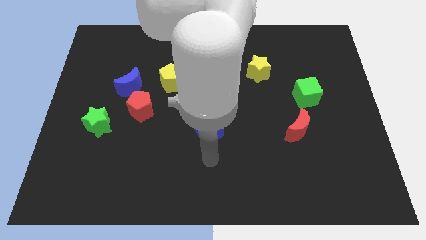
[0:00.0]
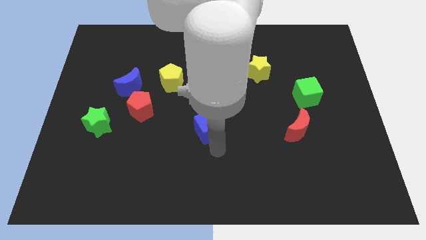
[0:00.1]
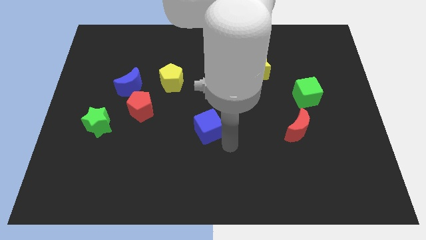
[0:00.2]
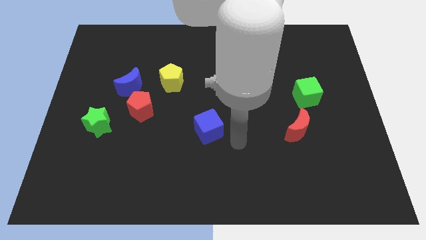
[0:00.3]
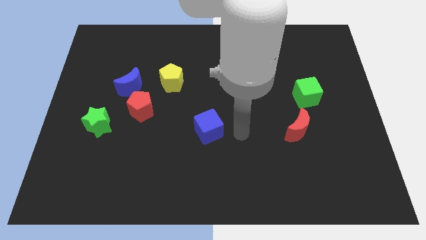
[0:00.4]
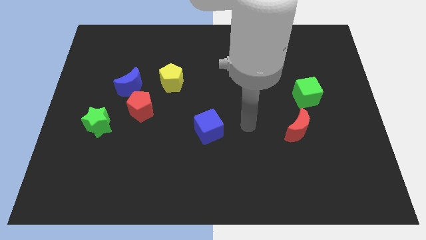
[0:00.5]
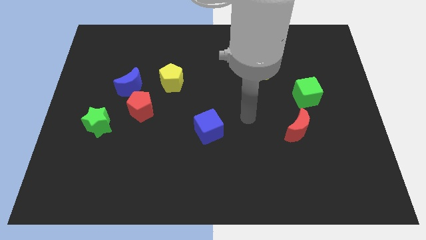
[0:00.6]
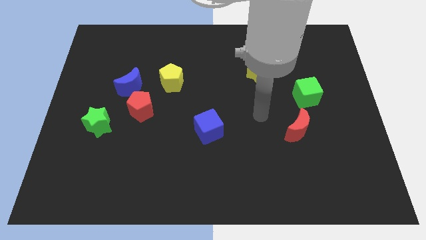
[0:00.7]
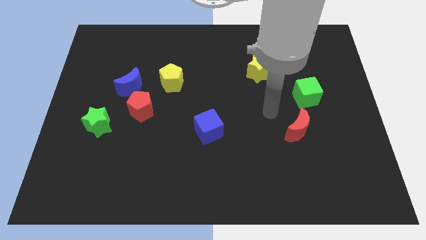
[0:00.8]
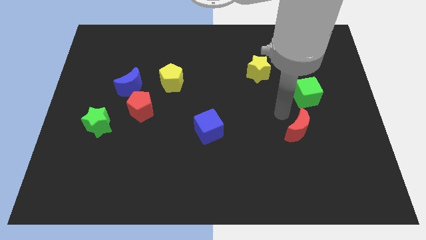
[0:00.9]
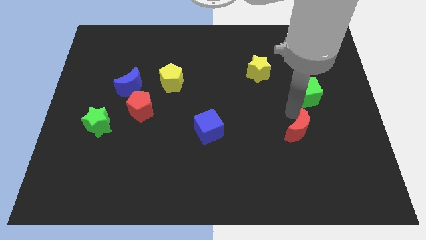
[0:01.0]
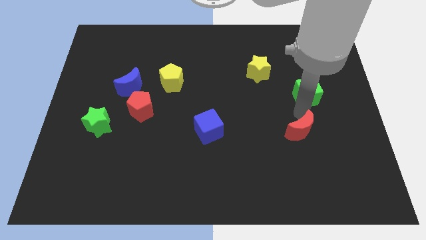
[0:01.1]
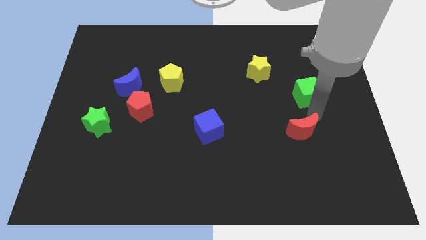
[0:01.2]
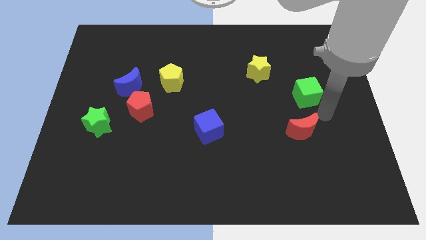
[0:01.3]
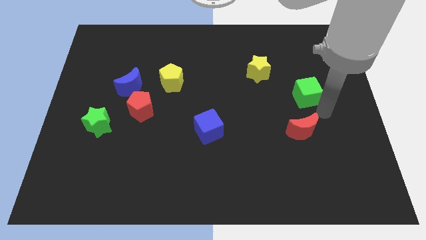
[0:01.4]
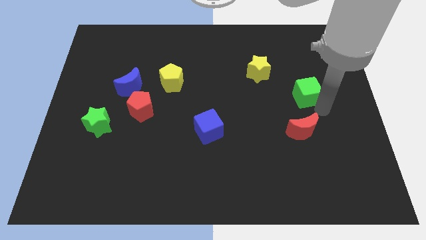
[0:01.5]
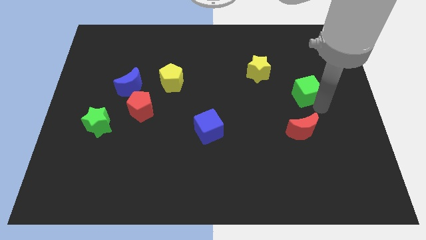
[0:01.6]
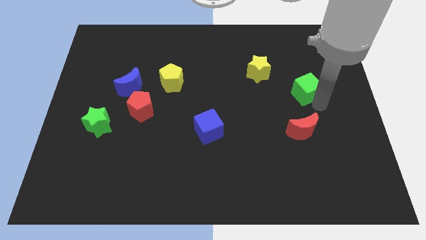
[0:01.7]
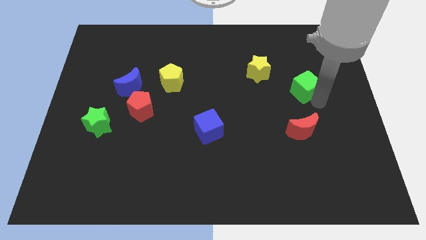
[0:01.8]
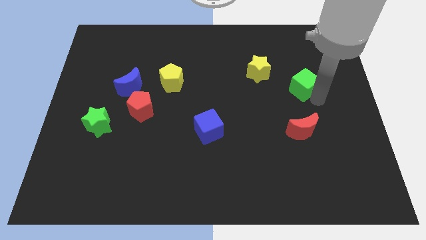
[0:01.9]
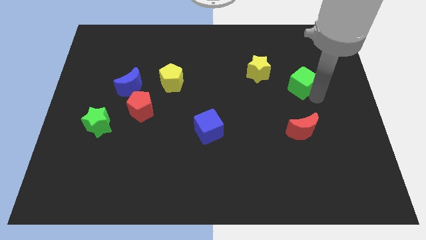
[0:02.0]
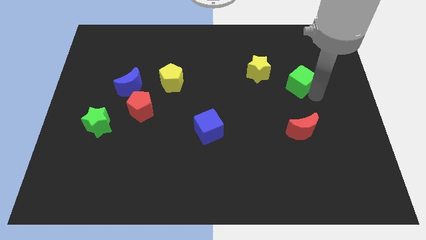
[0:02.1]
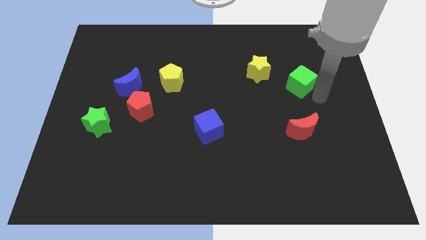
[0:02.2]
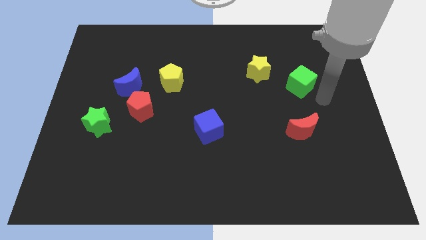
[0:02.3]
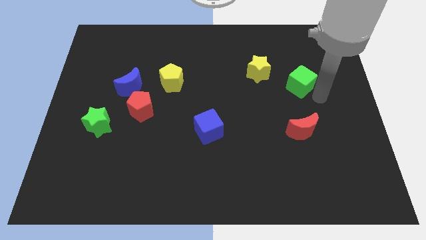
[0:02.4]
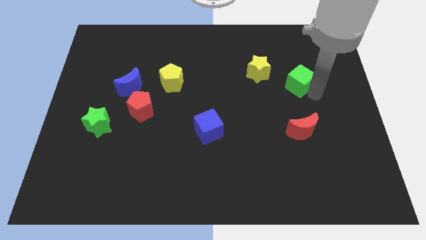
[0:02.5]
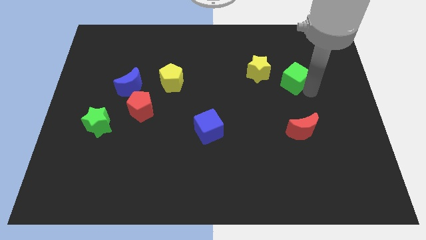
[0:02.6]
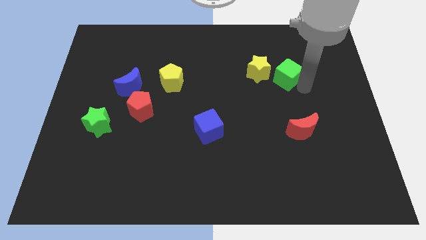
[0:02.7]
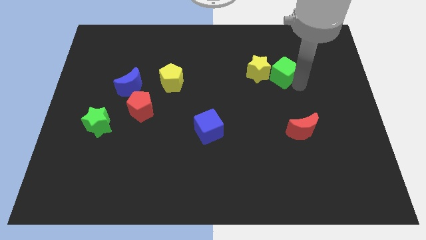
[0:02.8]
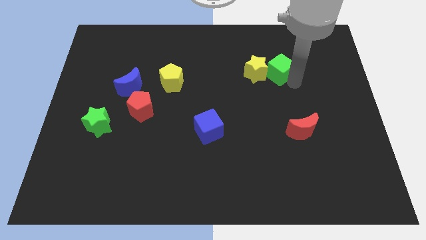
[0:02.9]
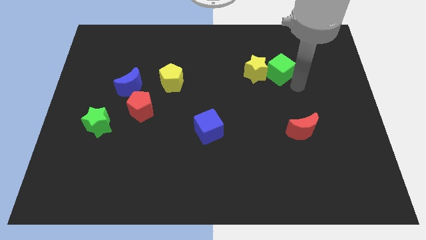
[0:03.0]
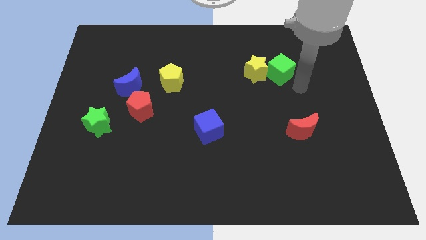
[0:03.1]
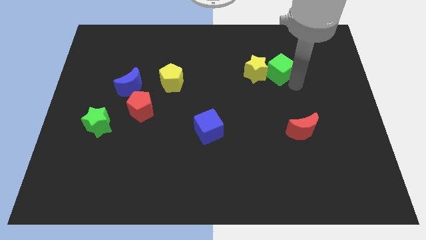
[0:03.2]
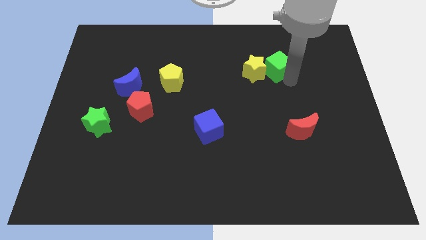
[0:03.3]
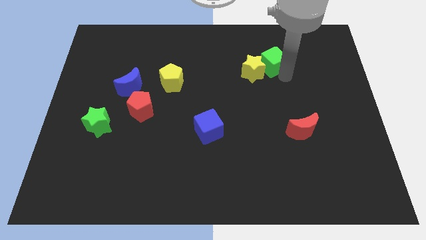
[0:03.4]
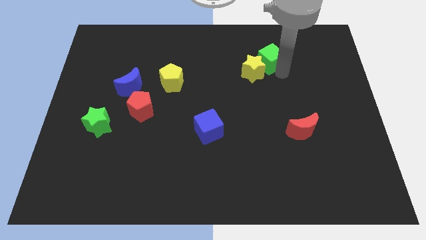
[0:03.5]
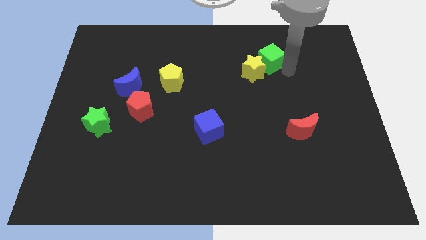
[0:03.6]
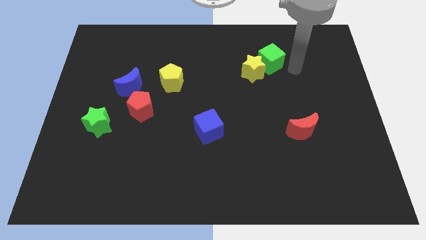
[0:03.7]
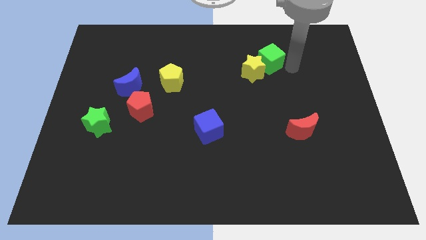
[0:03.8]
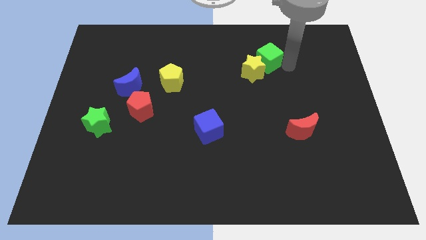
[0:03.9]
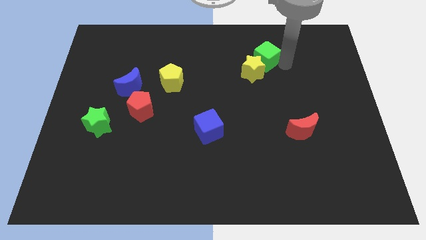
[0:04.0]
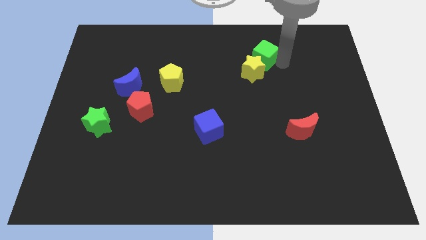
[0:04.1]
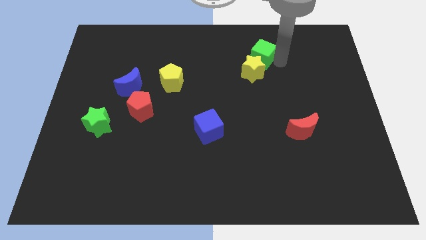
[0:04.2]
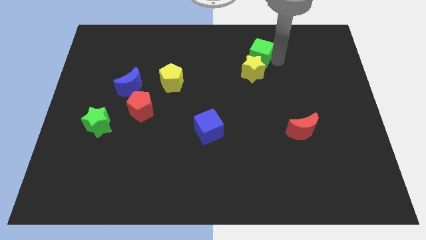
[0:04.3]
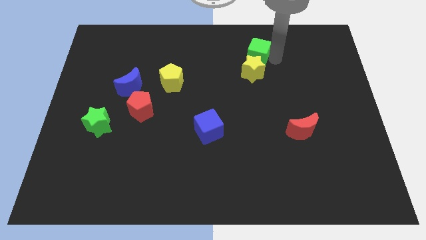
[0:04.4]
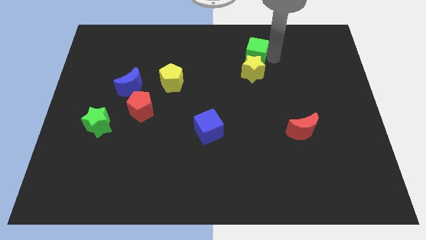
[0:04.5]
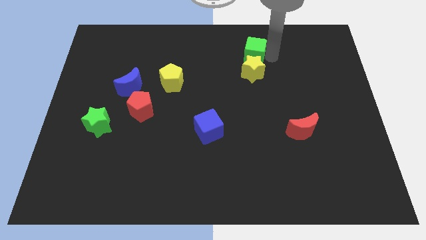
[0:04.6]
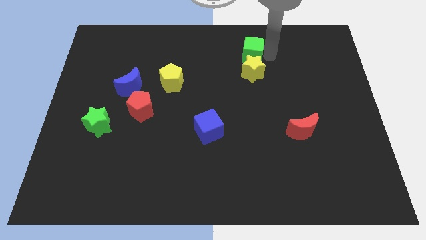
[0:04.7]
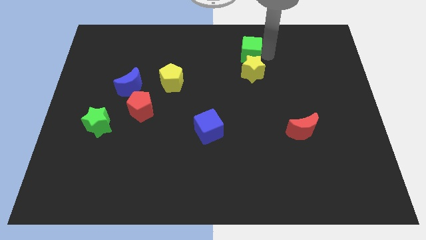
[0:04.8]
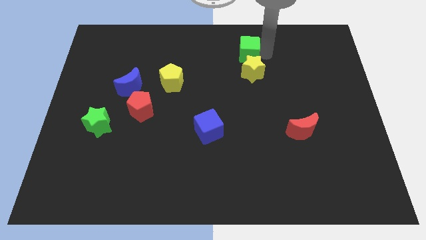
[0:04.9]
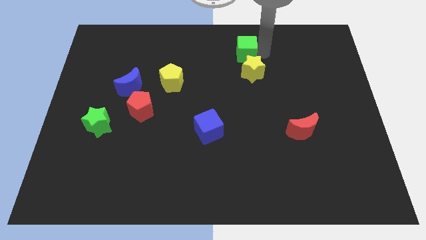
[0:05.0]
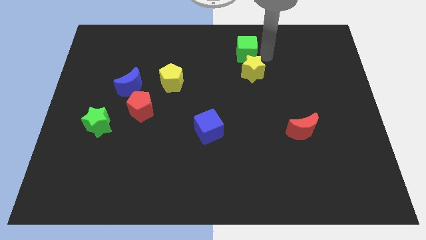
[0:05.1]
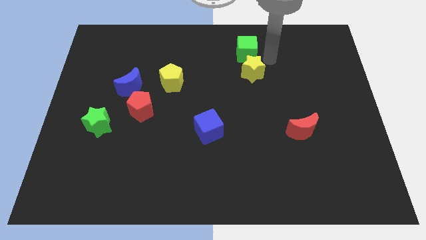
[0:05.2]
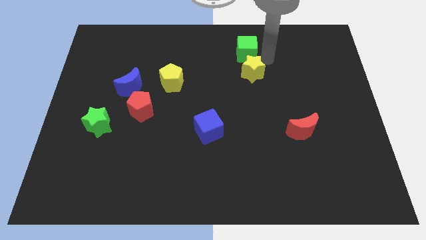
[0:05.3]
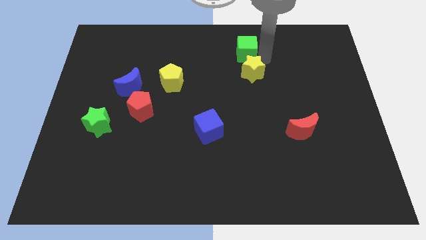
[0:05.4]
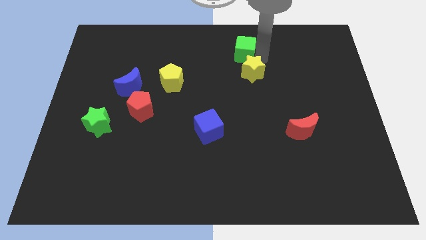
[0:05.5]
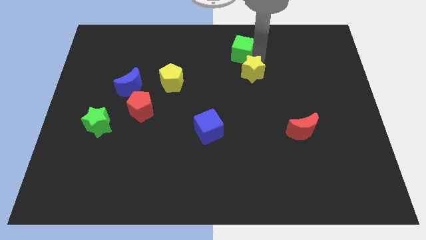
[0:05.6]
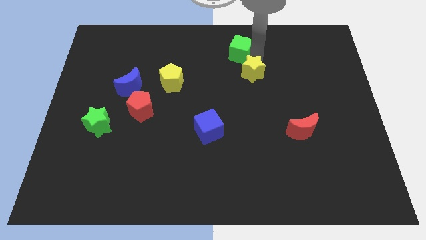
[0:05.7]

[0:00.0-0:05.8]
slide the green cube to the top
